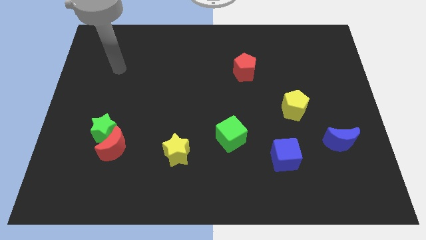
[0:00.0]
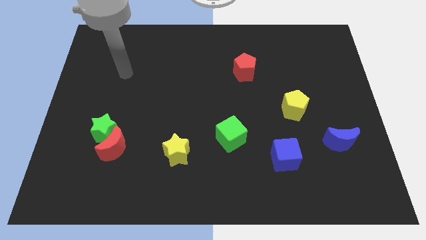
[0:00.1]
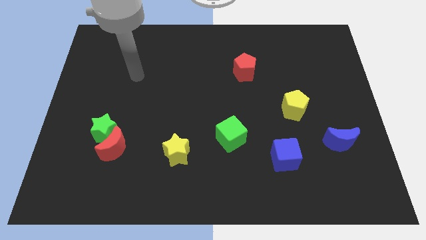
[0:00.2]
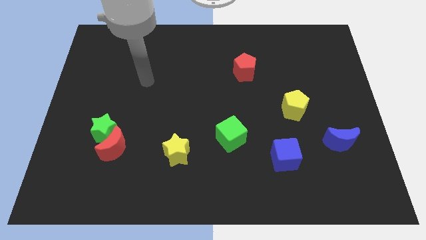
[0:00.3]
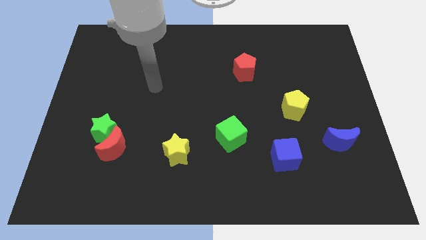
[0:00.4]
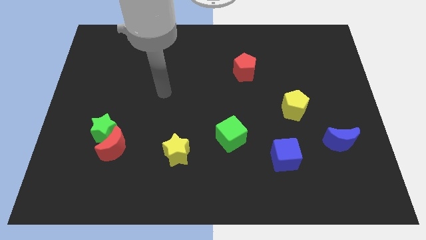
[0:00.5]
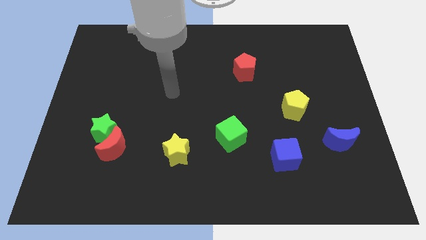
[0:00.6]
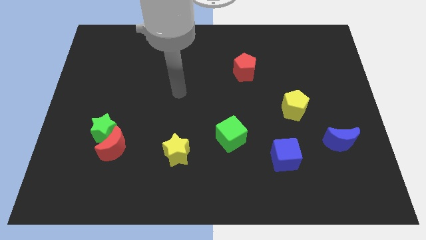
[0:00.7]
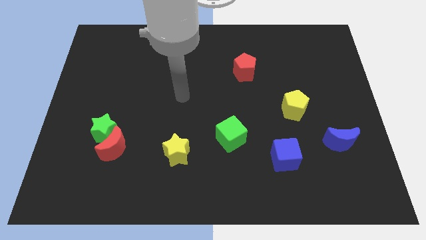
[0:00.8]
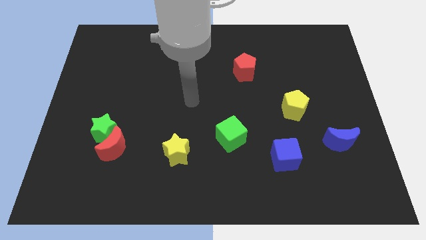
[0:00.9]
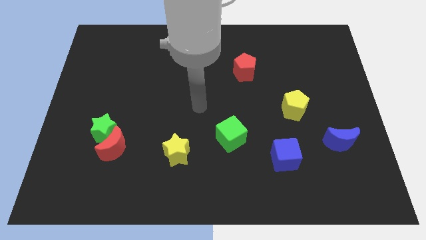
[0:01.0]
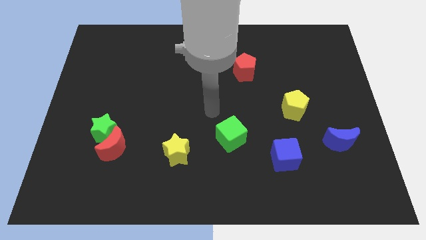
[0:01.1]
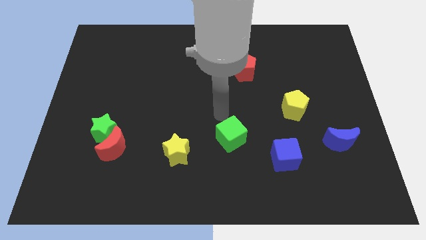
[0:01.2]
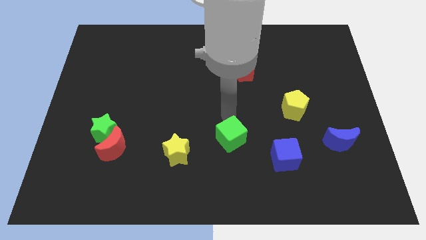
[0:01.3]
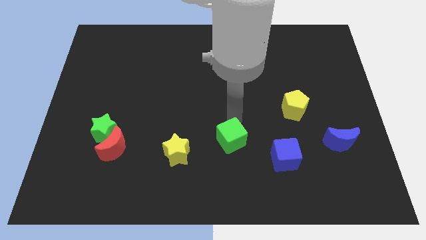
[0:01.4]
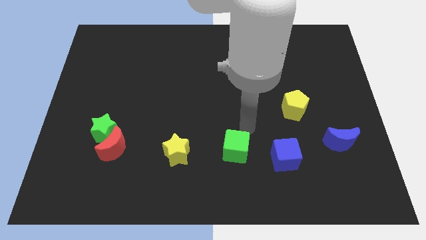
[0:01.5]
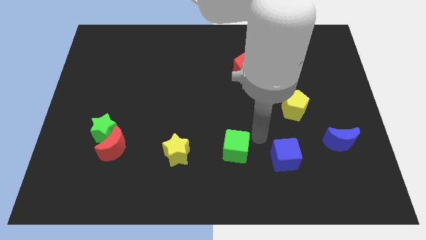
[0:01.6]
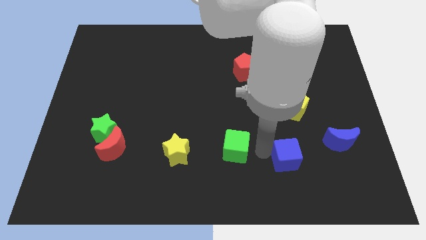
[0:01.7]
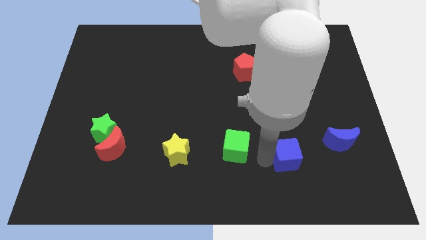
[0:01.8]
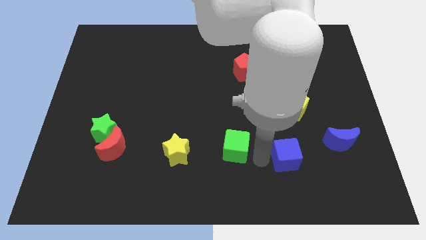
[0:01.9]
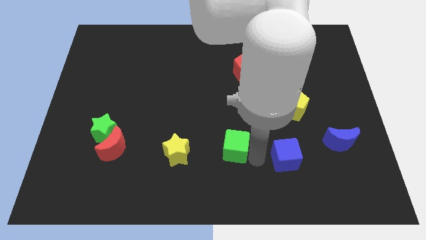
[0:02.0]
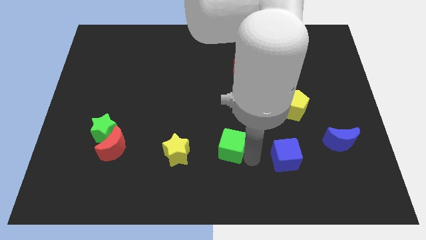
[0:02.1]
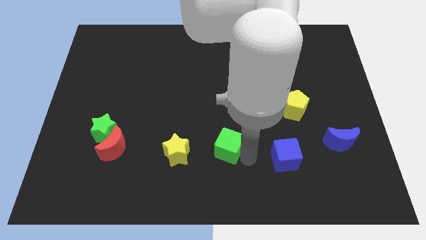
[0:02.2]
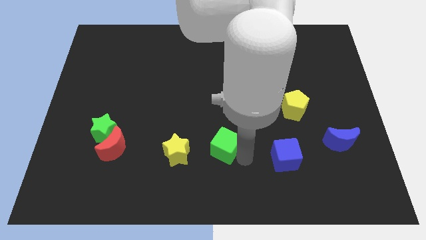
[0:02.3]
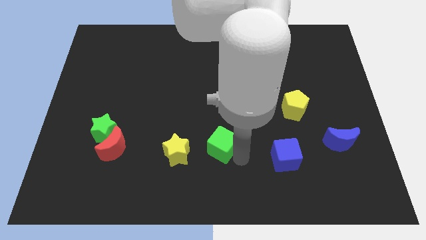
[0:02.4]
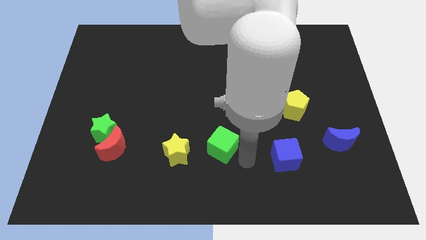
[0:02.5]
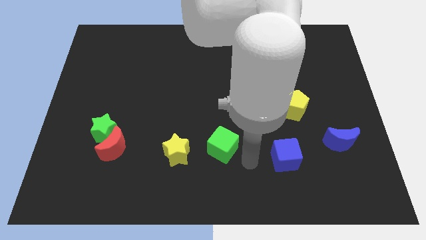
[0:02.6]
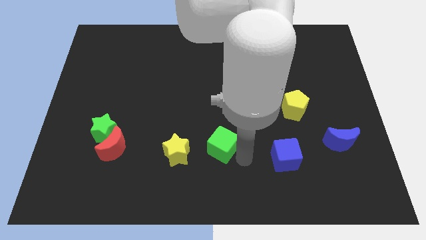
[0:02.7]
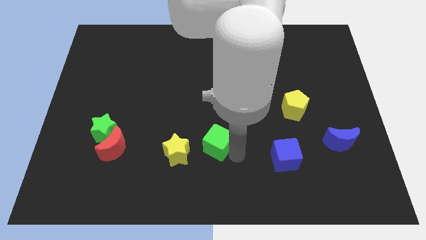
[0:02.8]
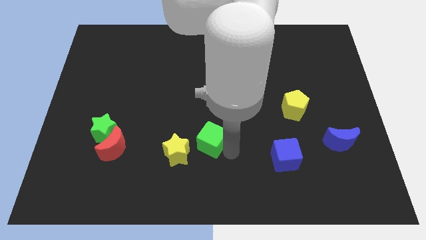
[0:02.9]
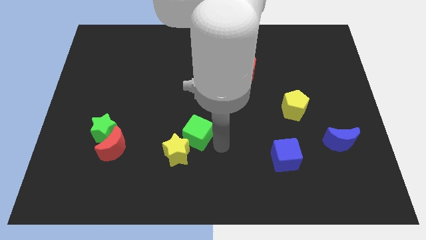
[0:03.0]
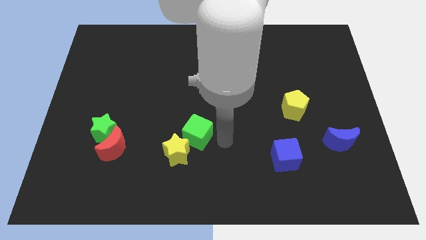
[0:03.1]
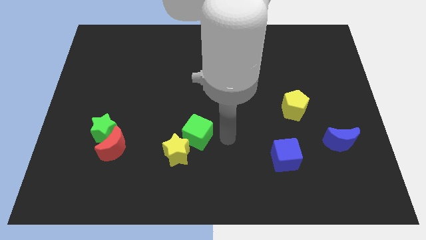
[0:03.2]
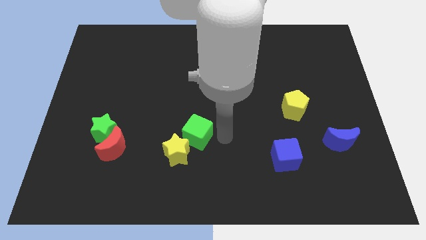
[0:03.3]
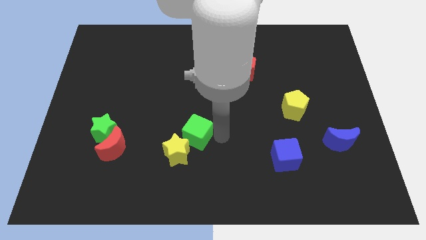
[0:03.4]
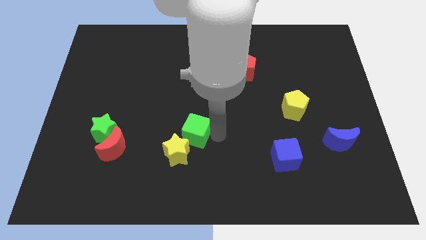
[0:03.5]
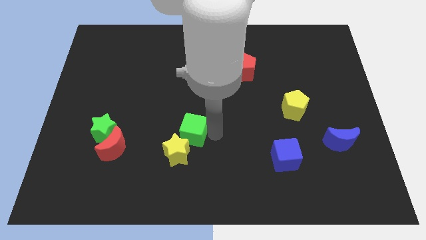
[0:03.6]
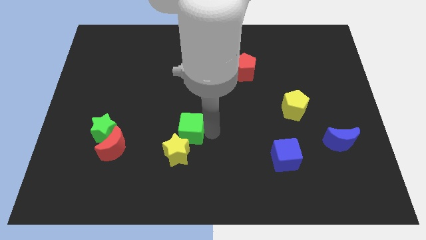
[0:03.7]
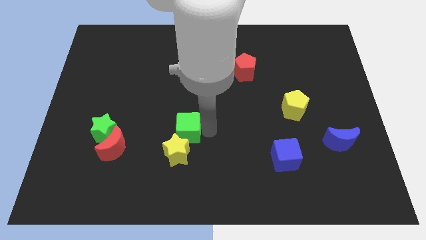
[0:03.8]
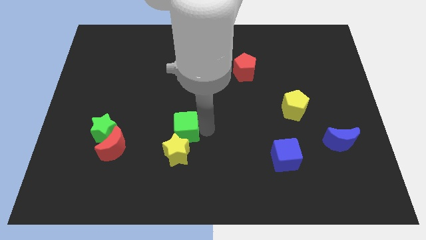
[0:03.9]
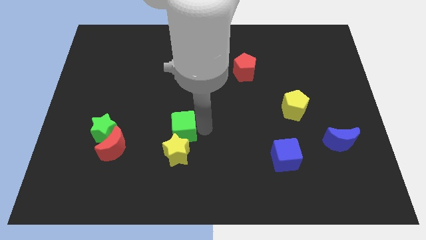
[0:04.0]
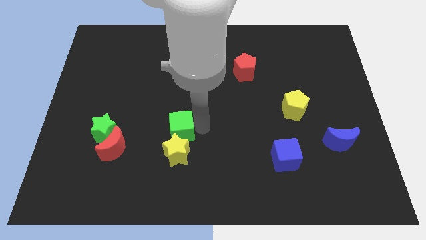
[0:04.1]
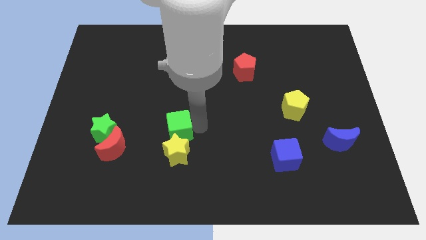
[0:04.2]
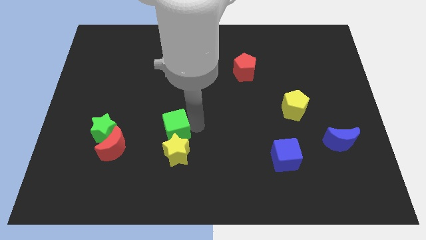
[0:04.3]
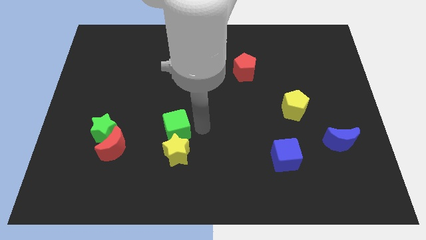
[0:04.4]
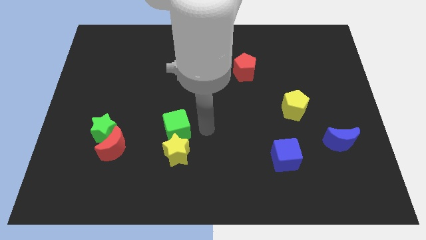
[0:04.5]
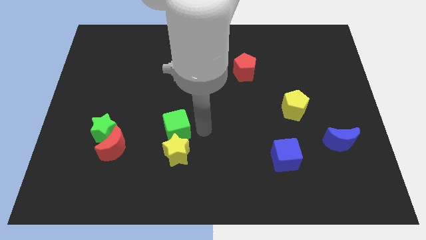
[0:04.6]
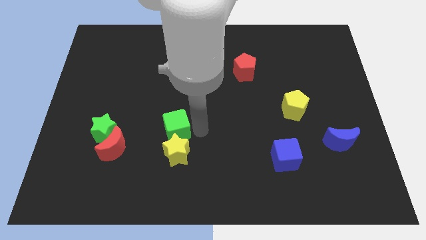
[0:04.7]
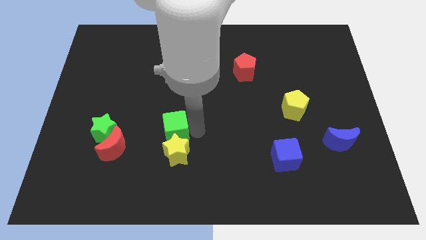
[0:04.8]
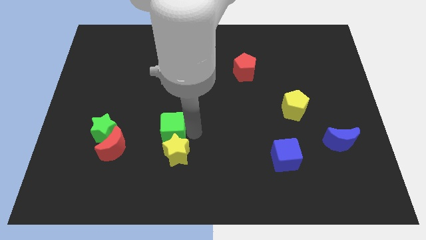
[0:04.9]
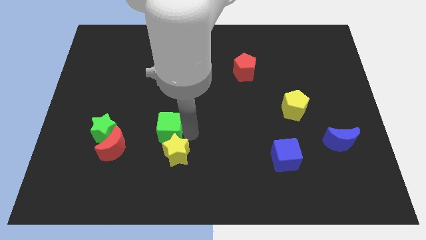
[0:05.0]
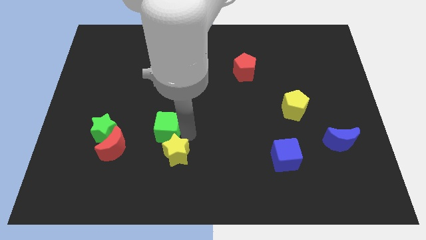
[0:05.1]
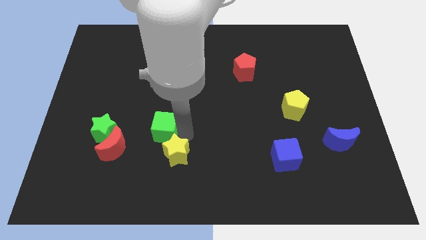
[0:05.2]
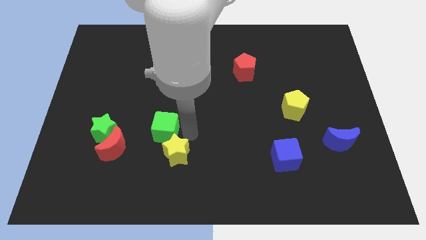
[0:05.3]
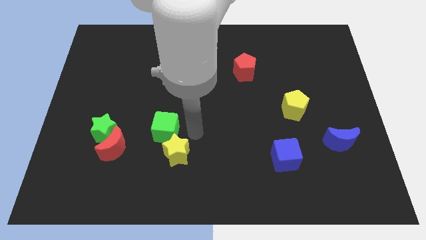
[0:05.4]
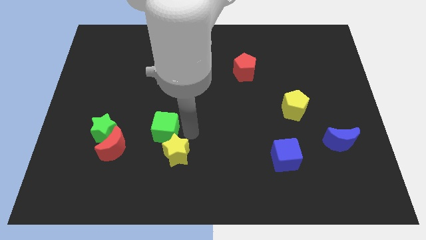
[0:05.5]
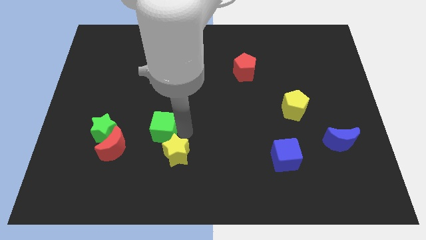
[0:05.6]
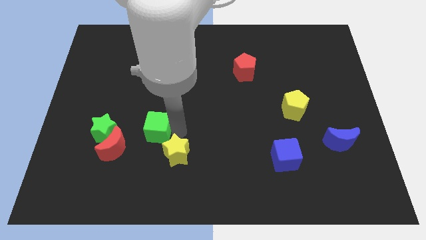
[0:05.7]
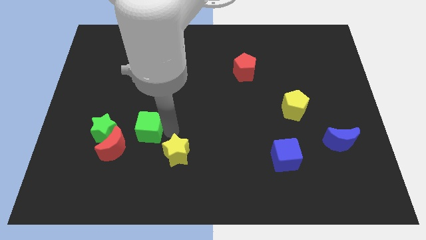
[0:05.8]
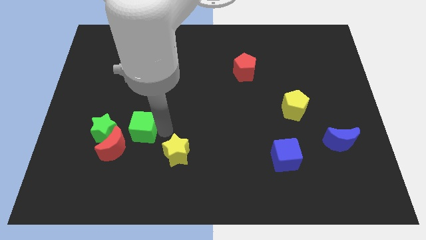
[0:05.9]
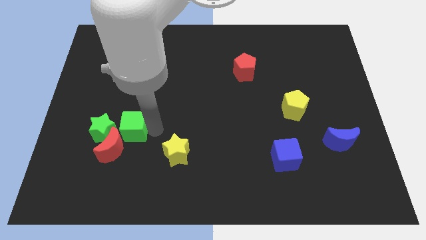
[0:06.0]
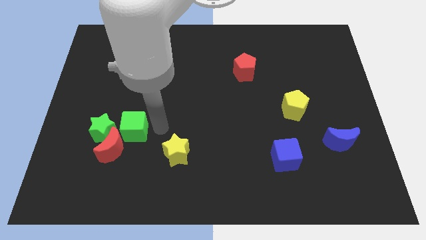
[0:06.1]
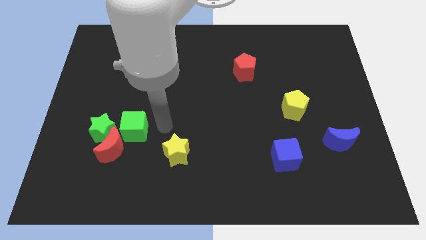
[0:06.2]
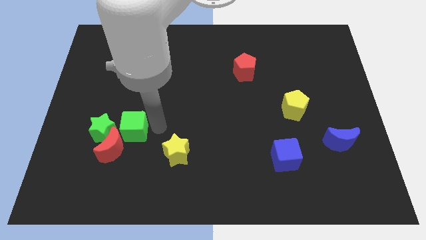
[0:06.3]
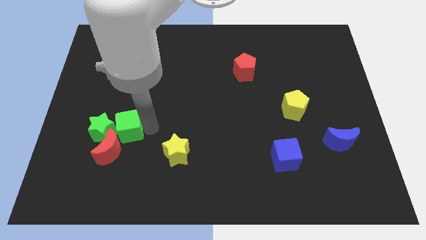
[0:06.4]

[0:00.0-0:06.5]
move the green cube close to the green star

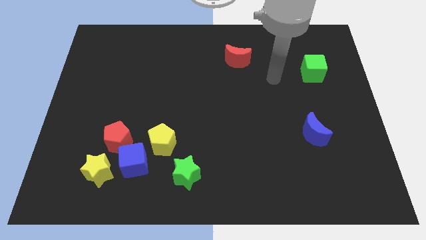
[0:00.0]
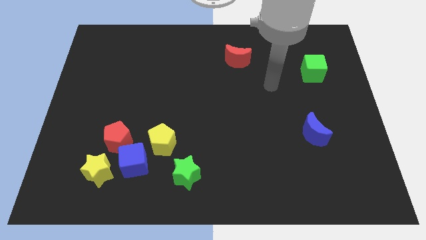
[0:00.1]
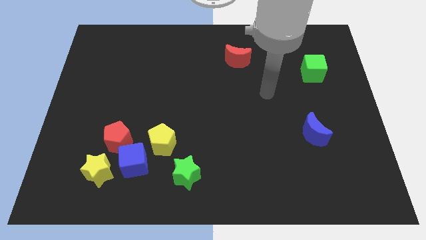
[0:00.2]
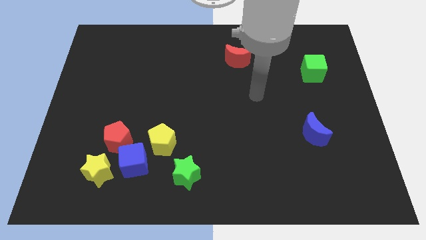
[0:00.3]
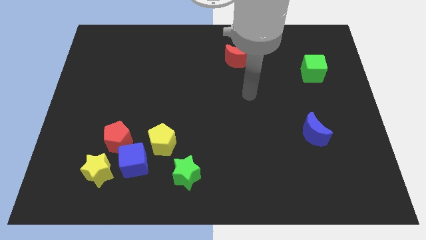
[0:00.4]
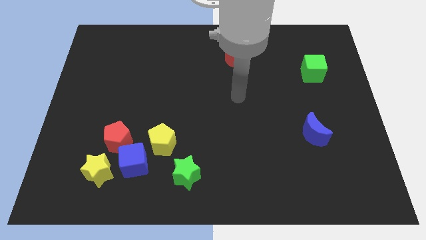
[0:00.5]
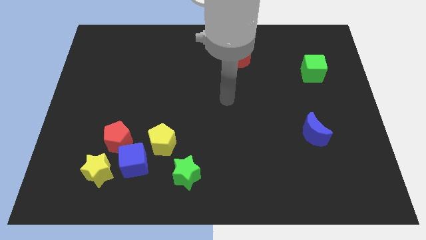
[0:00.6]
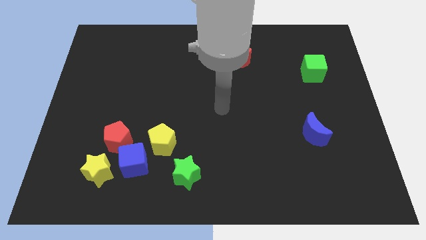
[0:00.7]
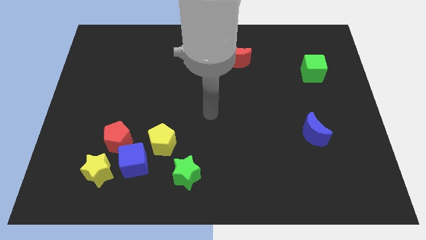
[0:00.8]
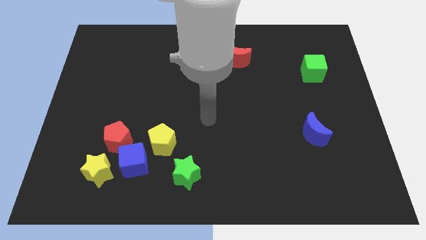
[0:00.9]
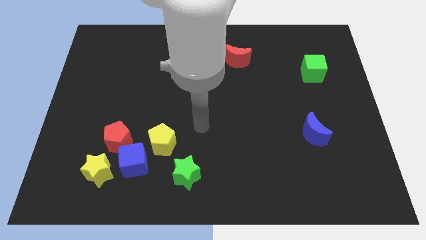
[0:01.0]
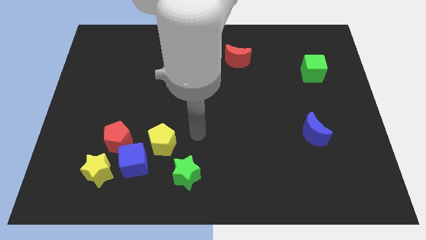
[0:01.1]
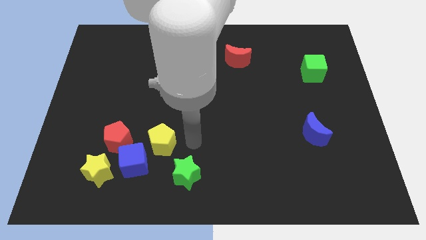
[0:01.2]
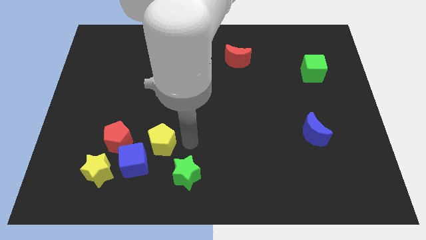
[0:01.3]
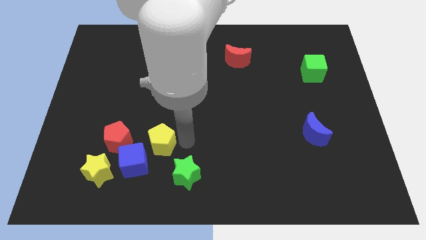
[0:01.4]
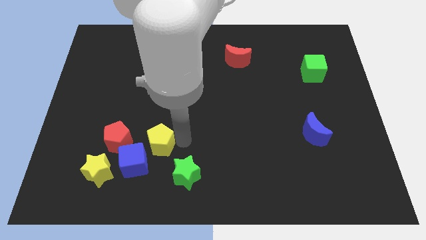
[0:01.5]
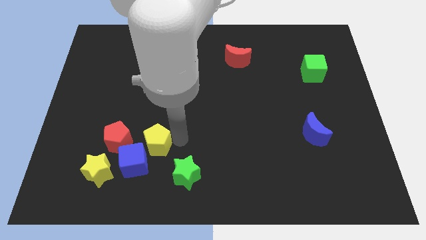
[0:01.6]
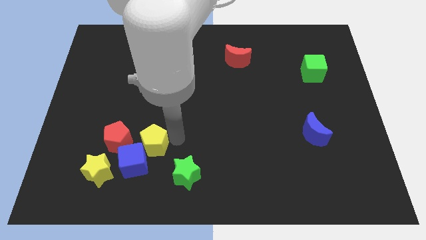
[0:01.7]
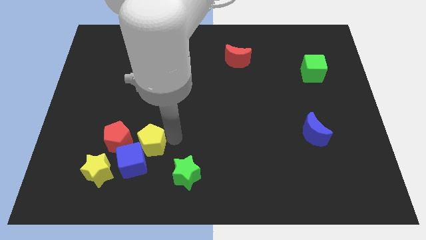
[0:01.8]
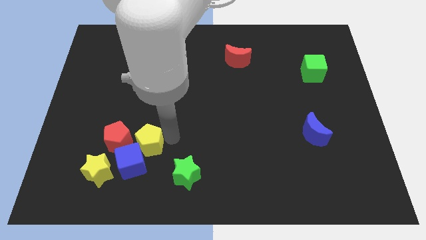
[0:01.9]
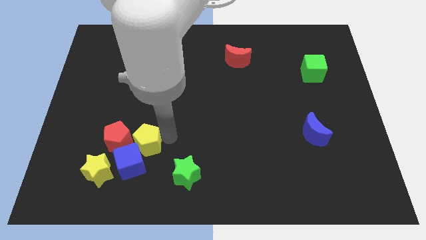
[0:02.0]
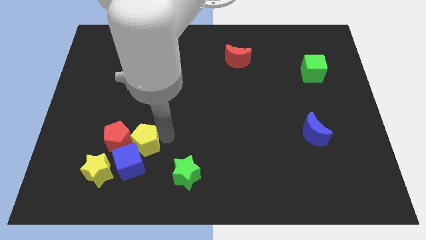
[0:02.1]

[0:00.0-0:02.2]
move the yellow pentagon towards the red pentagon
